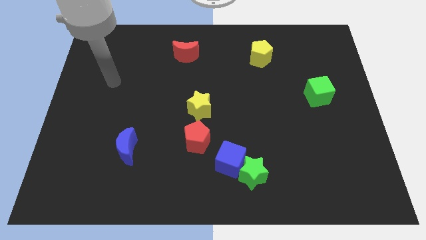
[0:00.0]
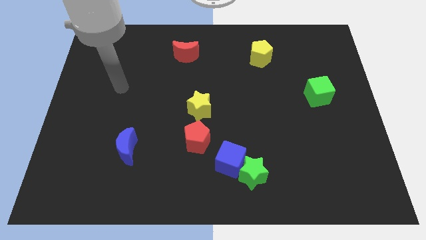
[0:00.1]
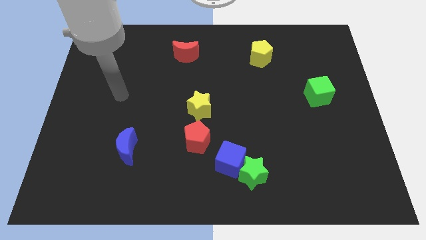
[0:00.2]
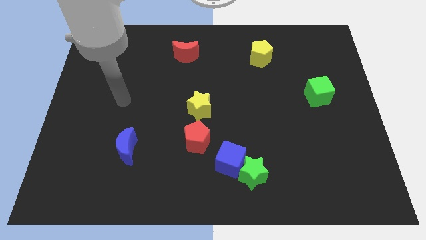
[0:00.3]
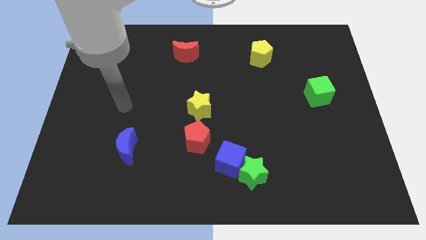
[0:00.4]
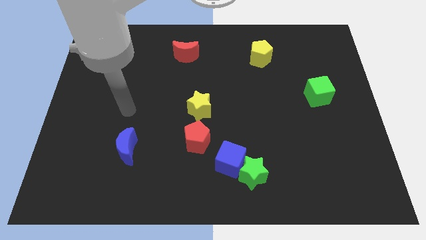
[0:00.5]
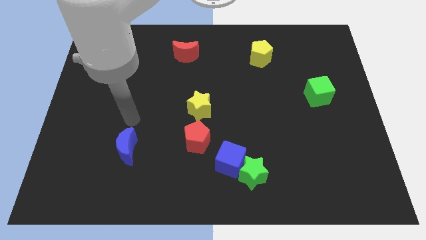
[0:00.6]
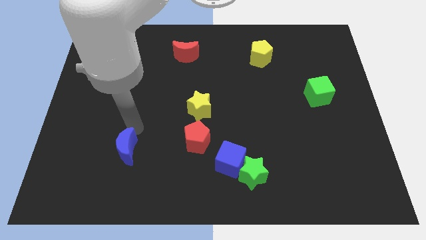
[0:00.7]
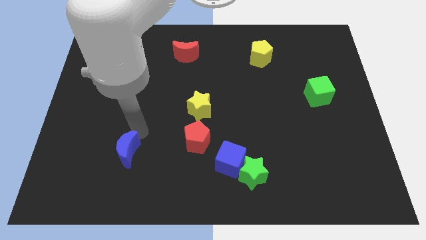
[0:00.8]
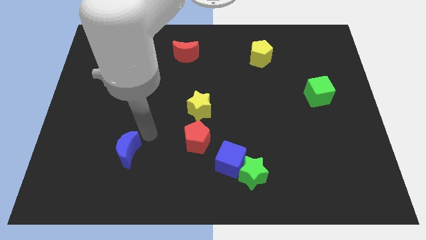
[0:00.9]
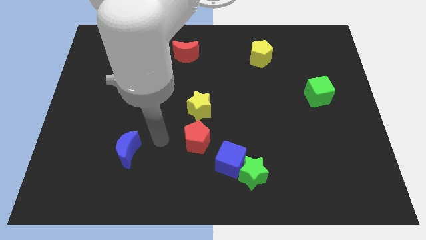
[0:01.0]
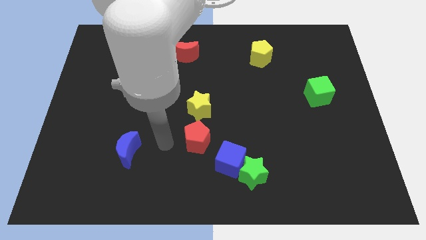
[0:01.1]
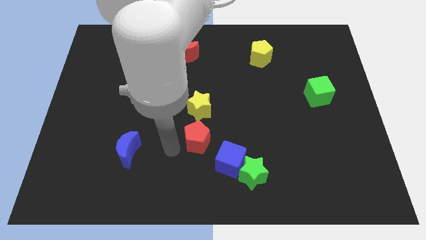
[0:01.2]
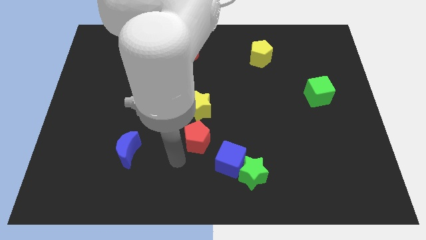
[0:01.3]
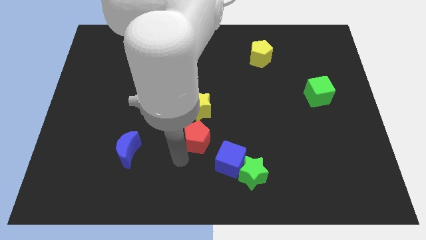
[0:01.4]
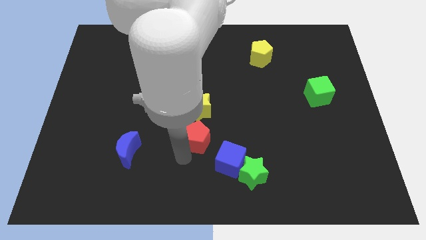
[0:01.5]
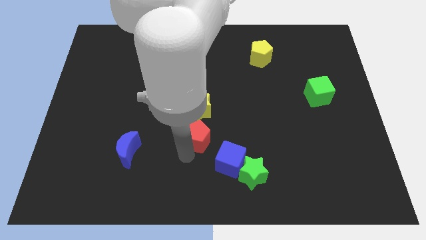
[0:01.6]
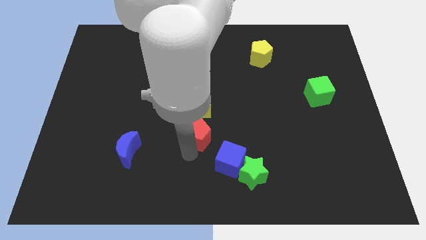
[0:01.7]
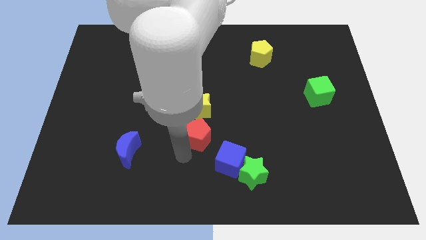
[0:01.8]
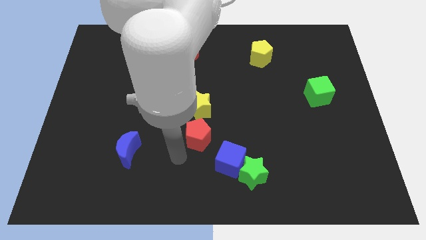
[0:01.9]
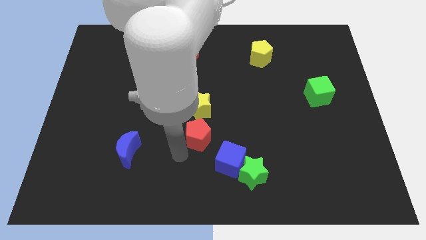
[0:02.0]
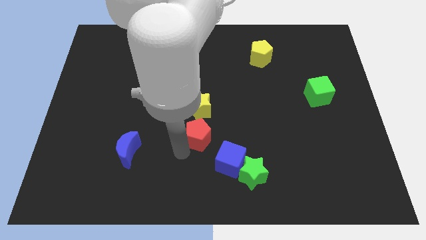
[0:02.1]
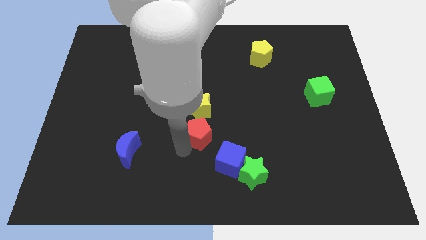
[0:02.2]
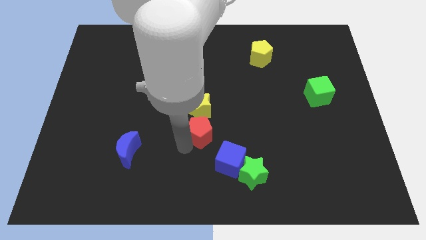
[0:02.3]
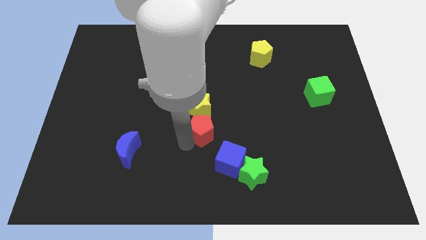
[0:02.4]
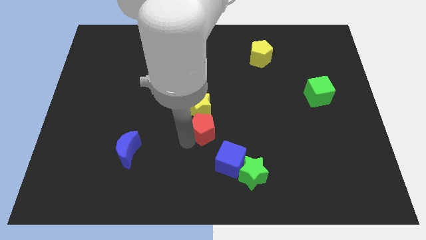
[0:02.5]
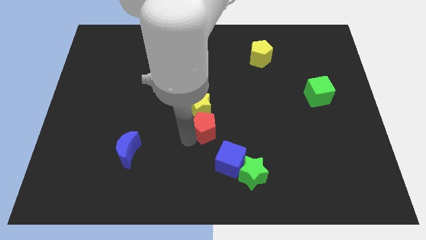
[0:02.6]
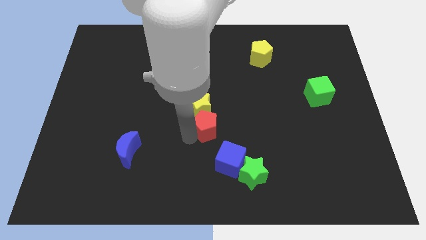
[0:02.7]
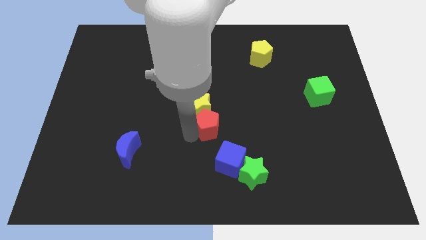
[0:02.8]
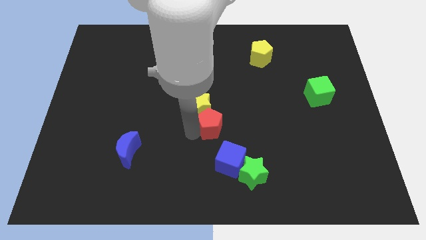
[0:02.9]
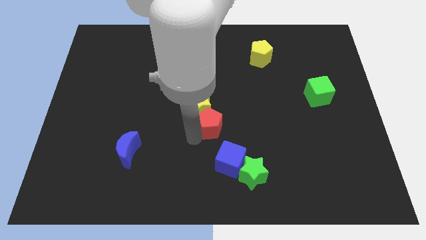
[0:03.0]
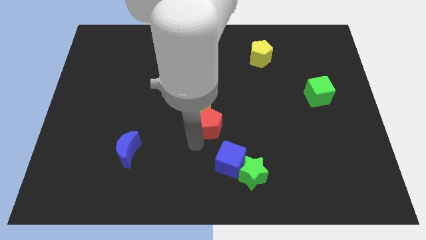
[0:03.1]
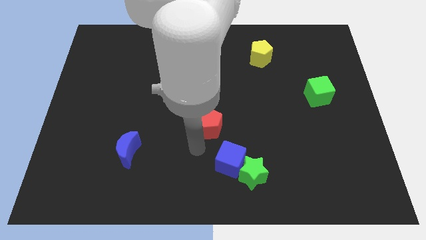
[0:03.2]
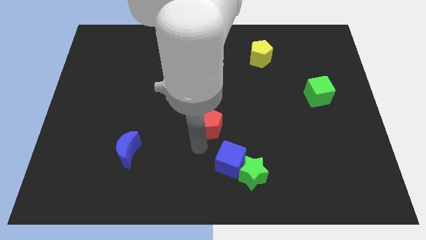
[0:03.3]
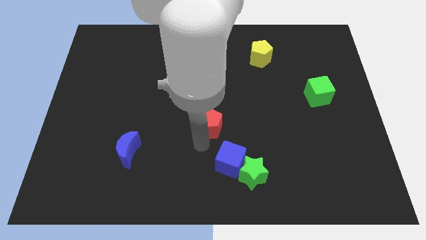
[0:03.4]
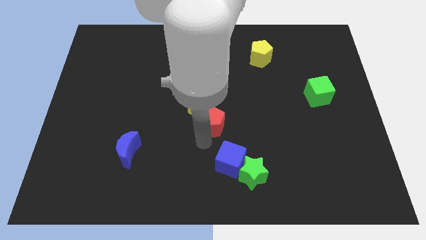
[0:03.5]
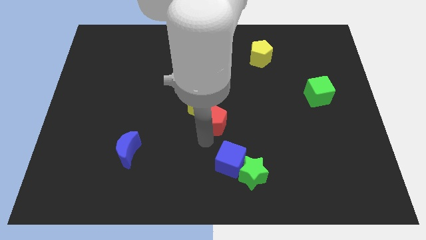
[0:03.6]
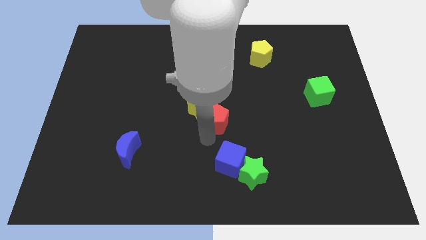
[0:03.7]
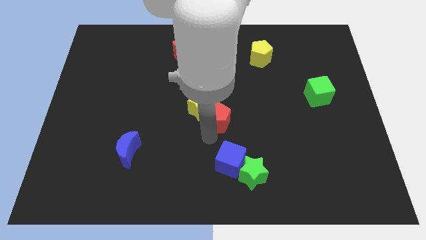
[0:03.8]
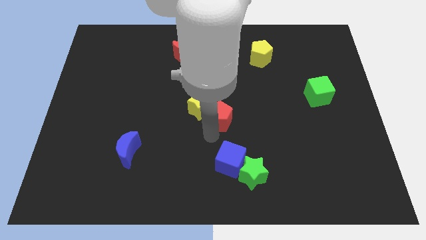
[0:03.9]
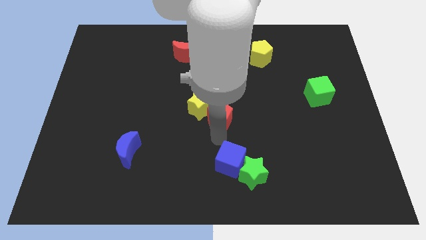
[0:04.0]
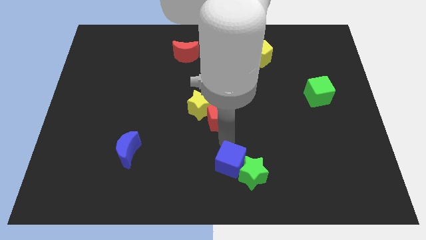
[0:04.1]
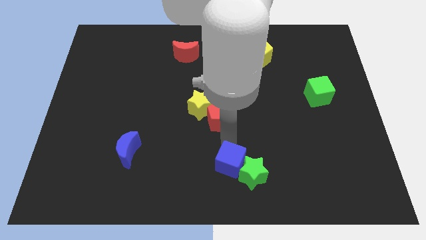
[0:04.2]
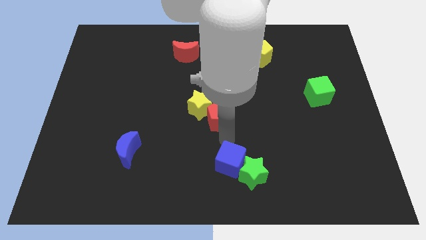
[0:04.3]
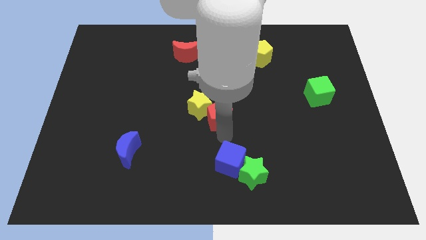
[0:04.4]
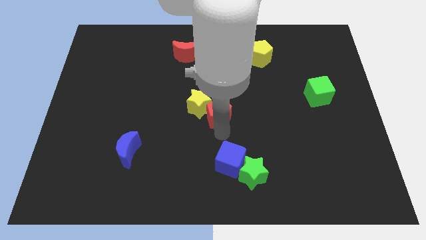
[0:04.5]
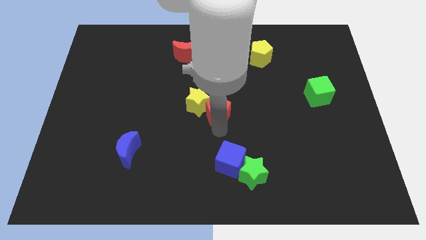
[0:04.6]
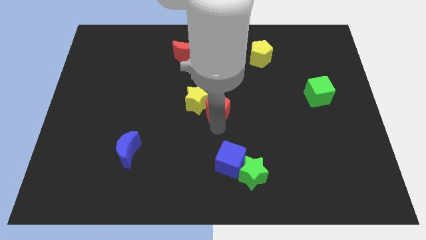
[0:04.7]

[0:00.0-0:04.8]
push the red pentagon a bit up

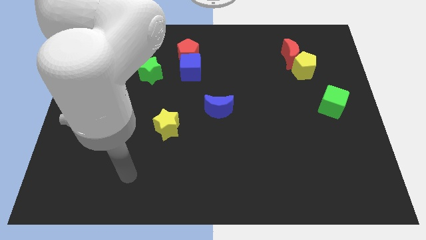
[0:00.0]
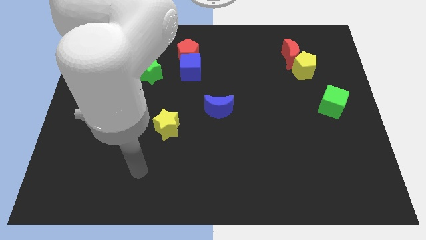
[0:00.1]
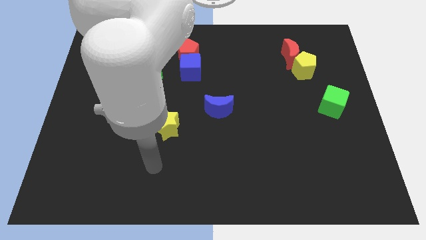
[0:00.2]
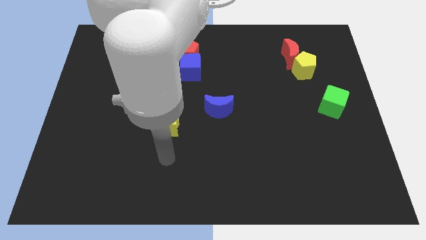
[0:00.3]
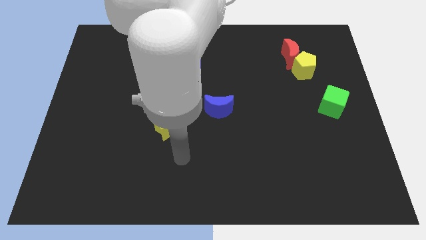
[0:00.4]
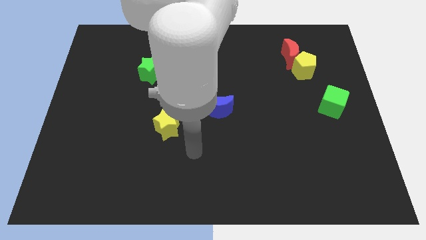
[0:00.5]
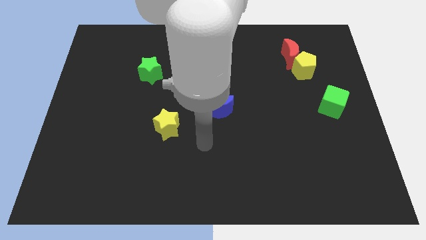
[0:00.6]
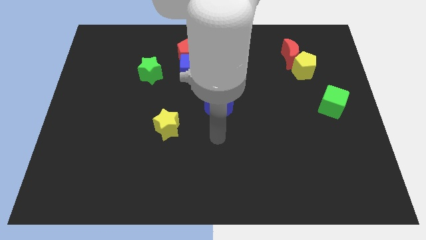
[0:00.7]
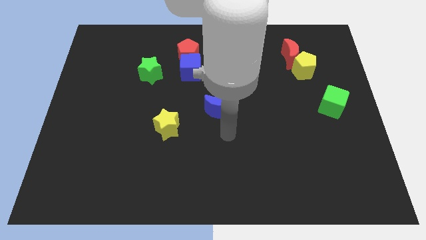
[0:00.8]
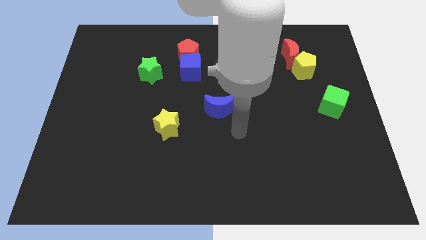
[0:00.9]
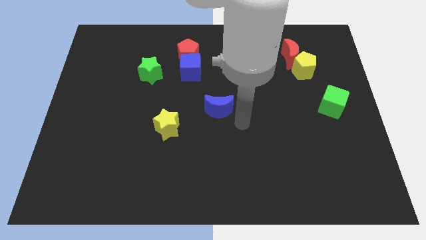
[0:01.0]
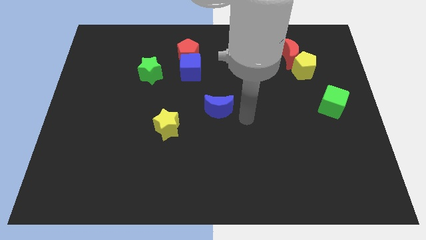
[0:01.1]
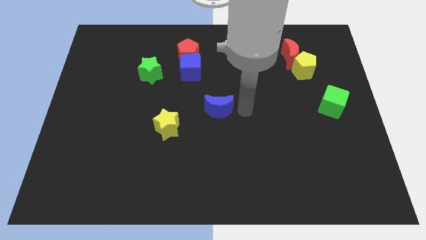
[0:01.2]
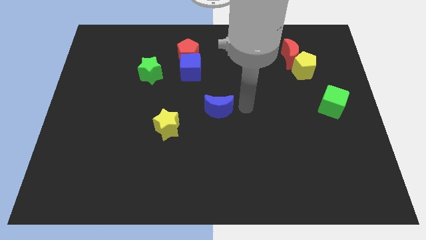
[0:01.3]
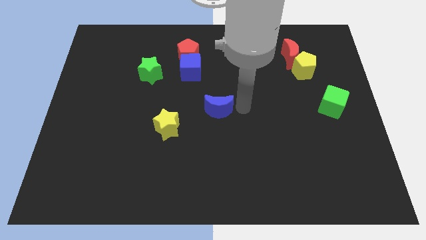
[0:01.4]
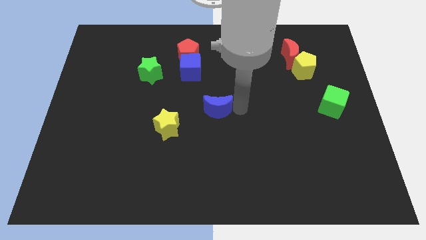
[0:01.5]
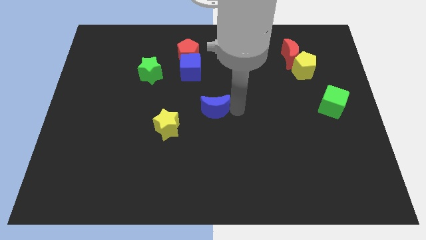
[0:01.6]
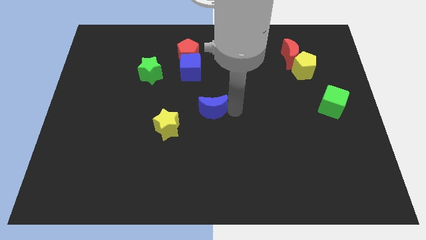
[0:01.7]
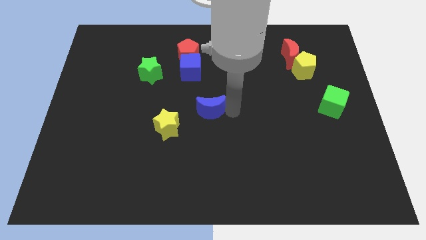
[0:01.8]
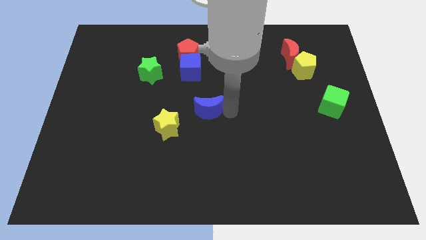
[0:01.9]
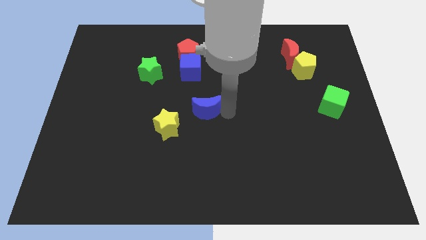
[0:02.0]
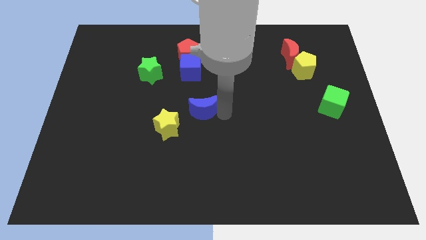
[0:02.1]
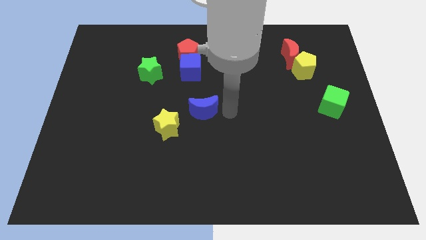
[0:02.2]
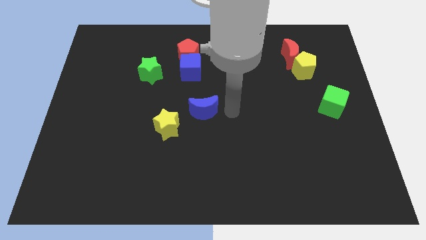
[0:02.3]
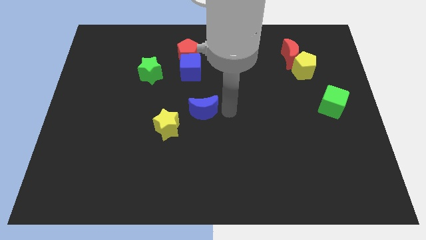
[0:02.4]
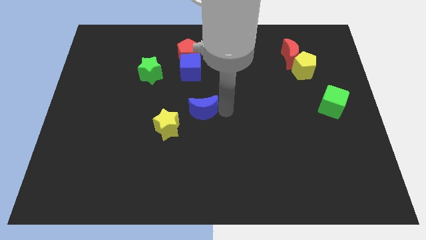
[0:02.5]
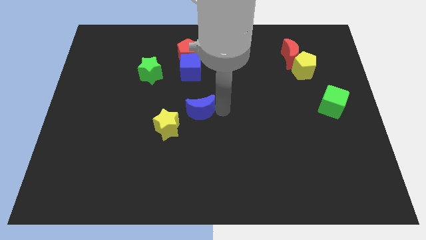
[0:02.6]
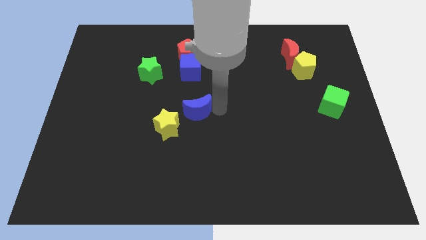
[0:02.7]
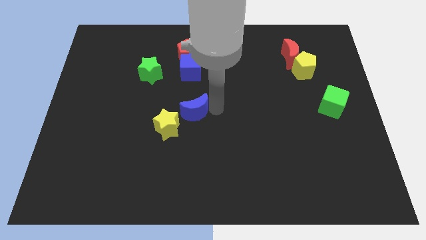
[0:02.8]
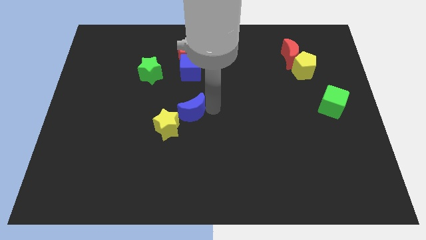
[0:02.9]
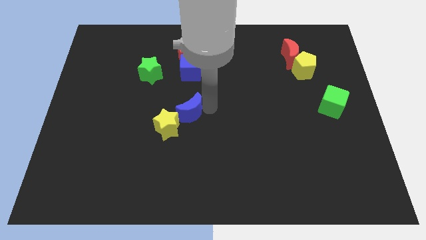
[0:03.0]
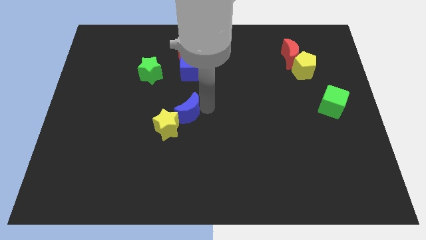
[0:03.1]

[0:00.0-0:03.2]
slide the blue moon left a little

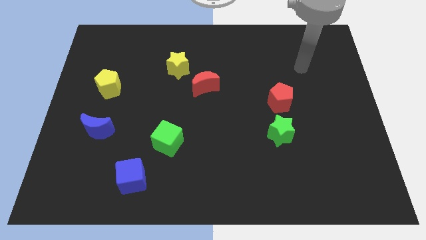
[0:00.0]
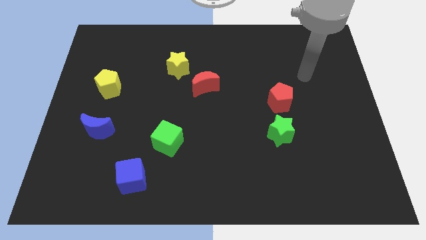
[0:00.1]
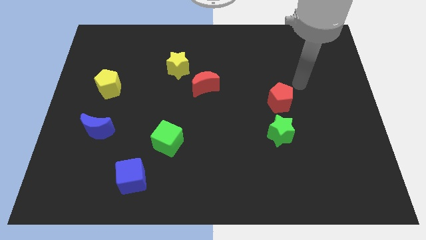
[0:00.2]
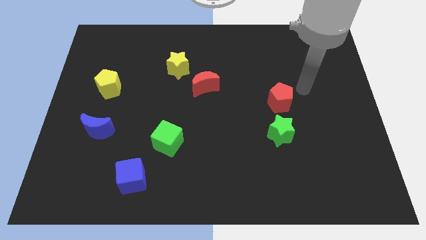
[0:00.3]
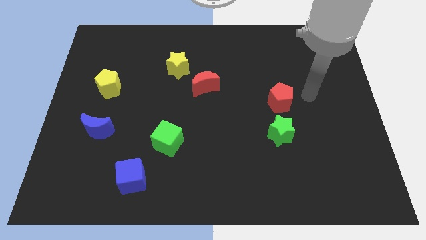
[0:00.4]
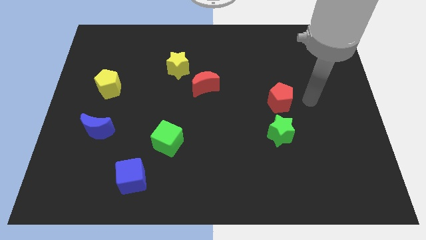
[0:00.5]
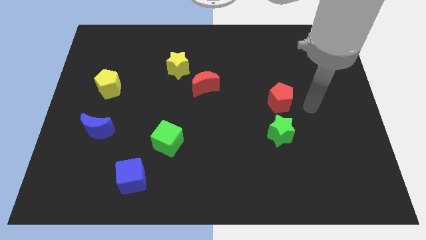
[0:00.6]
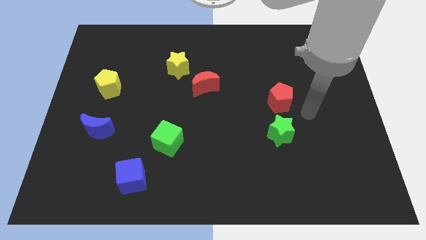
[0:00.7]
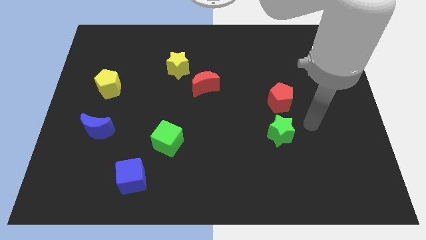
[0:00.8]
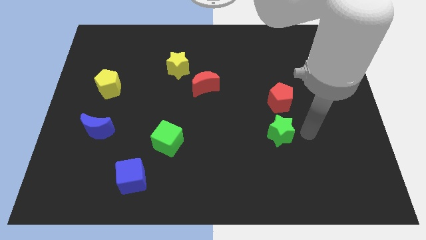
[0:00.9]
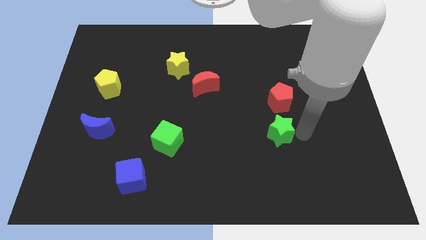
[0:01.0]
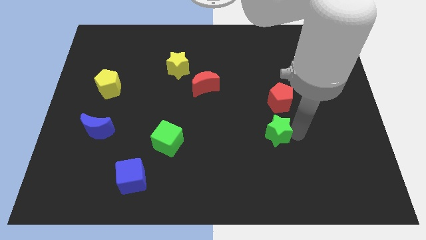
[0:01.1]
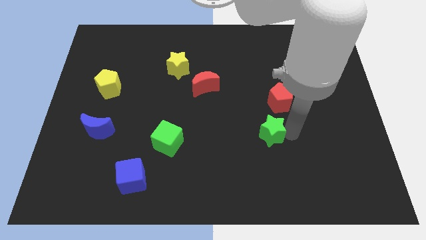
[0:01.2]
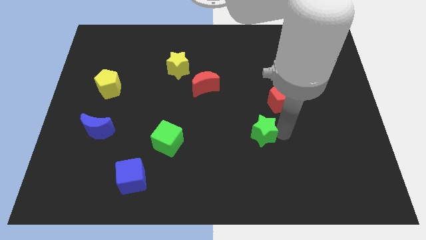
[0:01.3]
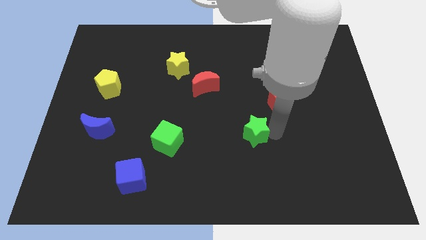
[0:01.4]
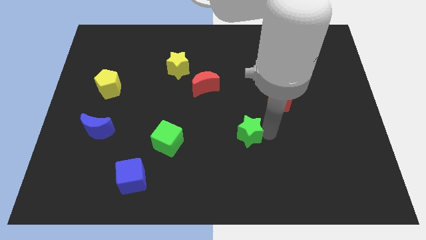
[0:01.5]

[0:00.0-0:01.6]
push the green star to the left a bit
